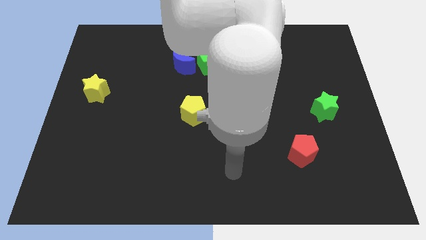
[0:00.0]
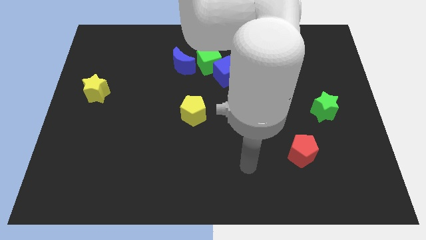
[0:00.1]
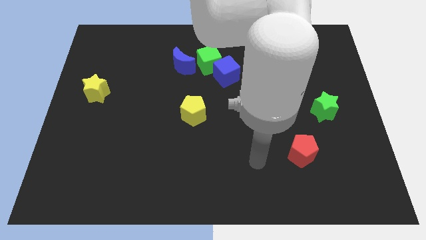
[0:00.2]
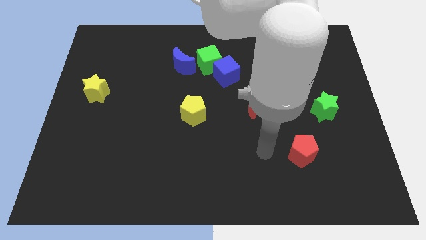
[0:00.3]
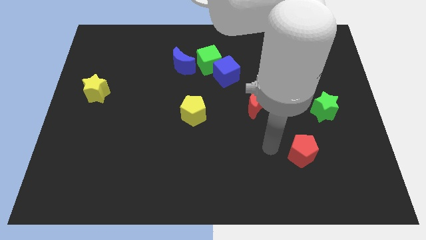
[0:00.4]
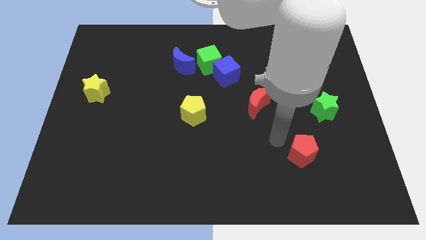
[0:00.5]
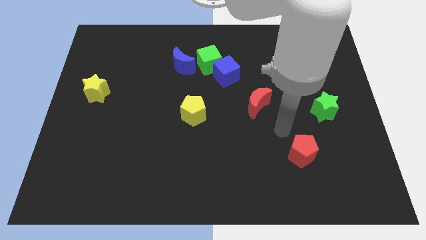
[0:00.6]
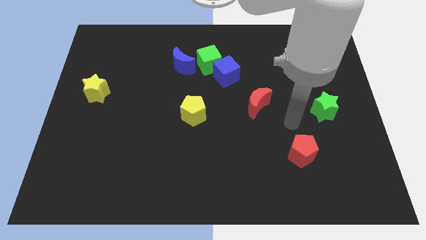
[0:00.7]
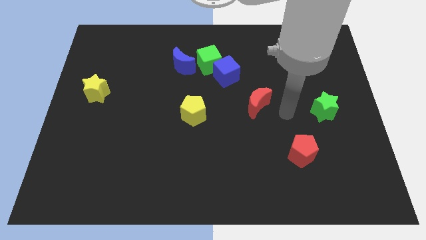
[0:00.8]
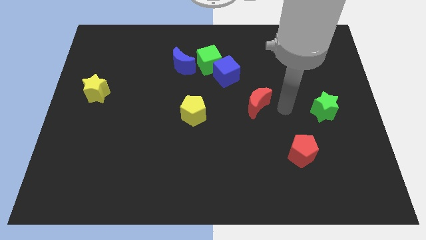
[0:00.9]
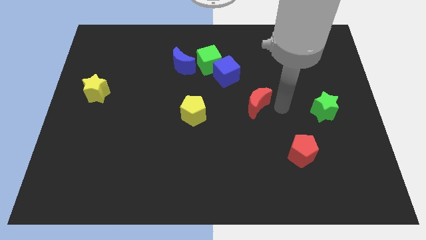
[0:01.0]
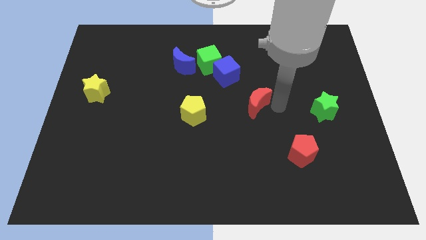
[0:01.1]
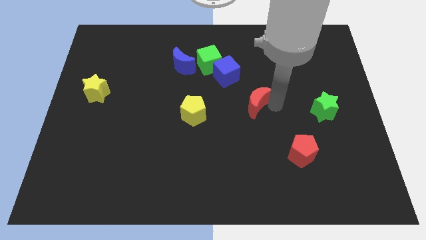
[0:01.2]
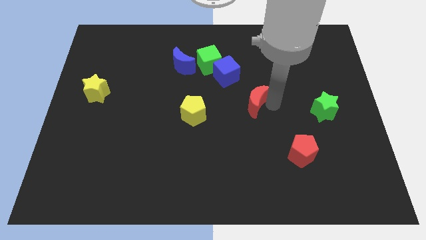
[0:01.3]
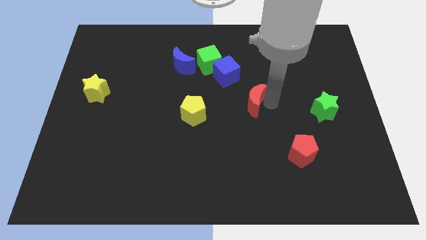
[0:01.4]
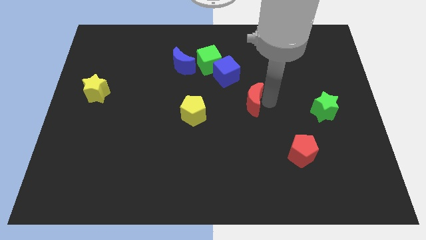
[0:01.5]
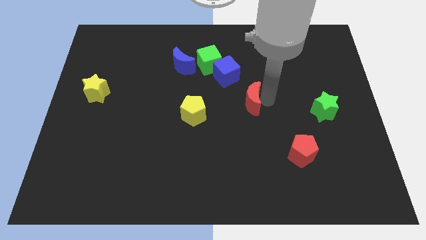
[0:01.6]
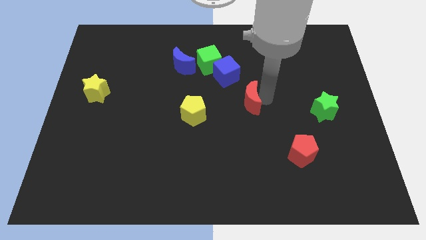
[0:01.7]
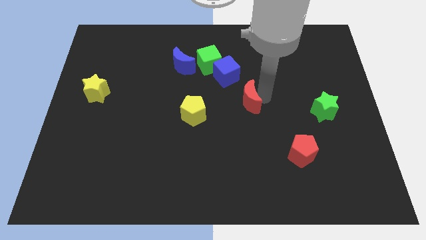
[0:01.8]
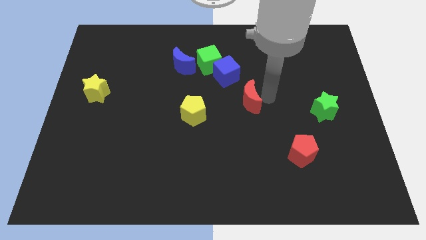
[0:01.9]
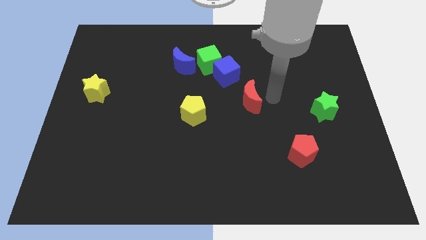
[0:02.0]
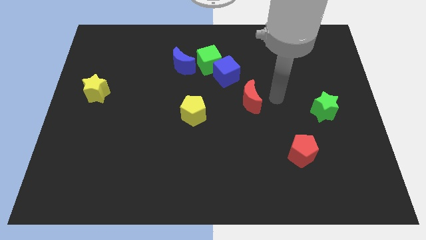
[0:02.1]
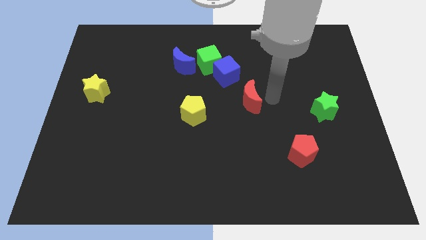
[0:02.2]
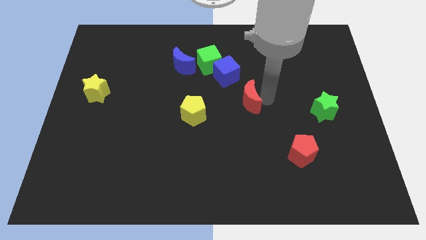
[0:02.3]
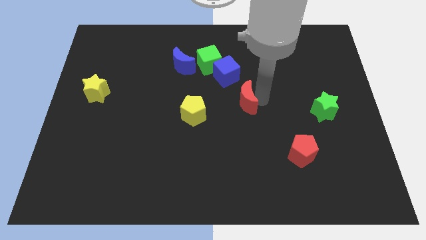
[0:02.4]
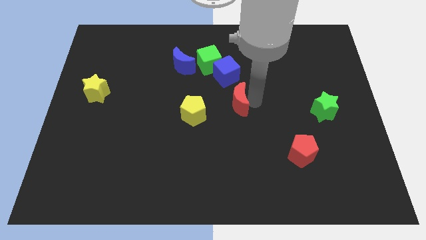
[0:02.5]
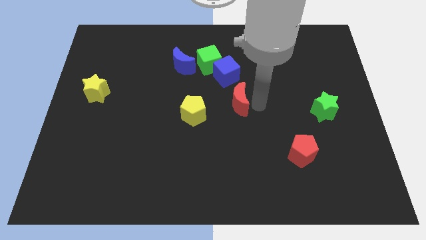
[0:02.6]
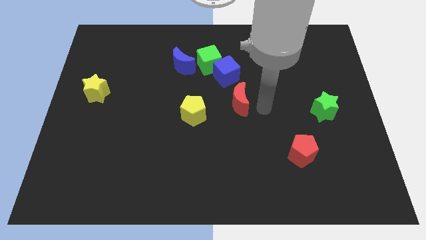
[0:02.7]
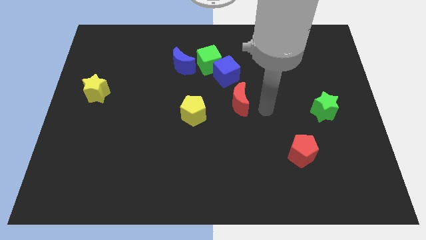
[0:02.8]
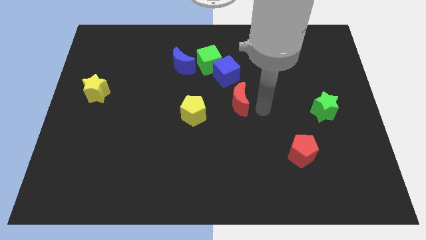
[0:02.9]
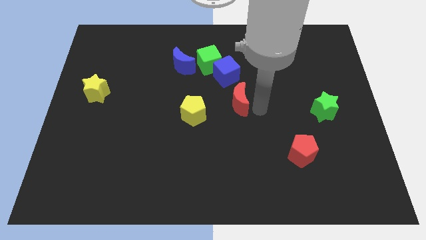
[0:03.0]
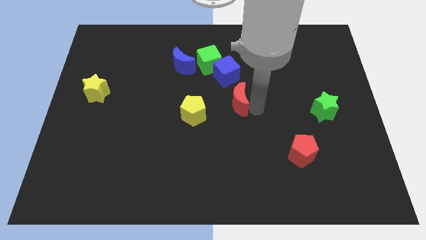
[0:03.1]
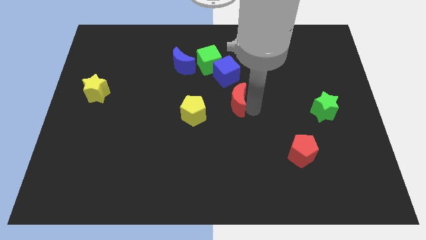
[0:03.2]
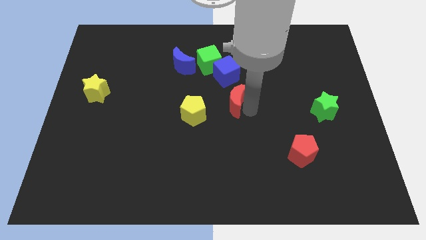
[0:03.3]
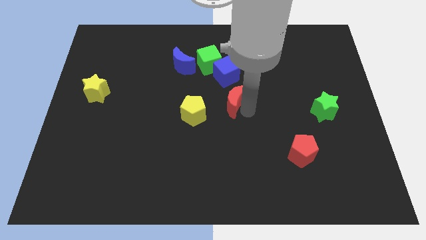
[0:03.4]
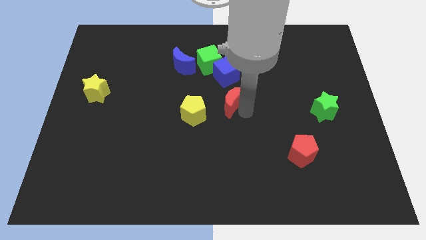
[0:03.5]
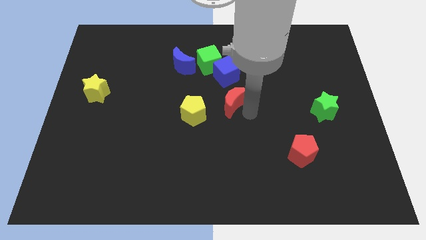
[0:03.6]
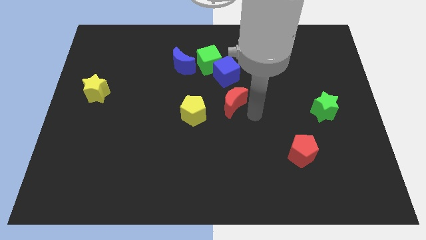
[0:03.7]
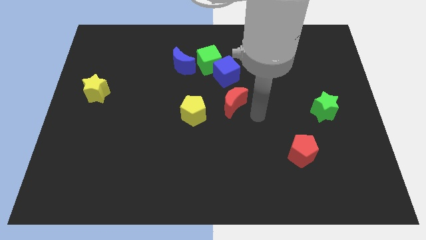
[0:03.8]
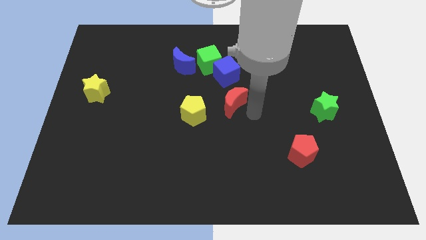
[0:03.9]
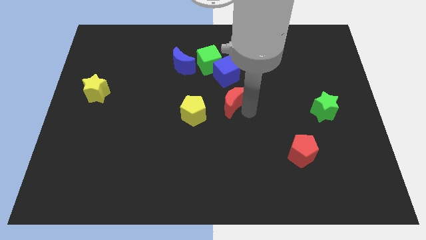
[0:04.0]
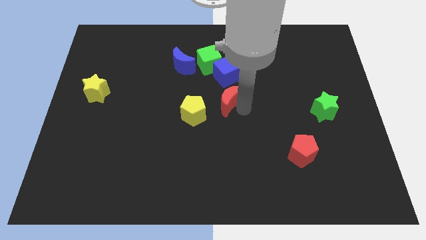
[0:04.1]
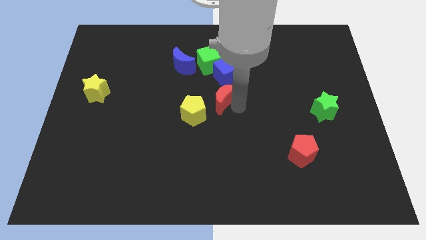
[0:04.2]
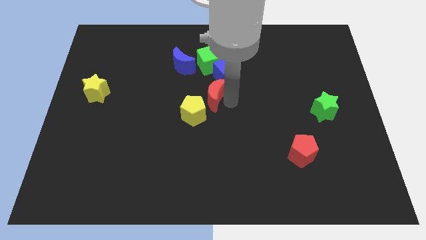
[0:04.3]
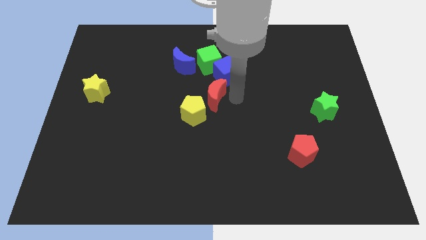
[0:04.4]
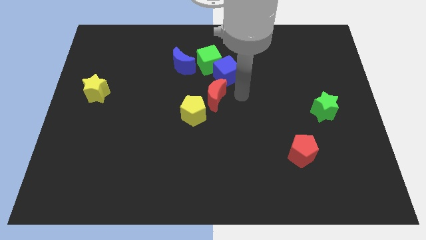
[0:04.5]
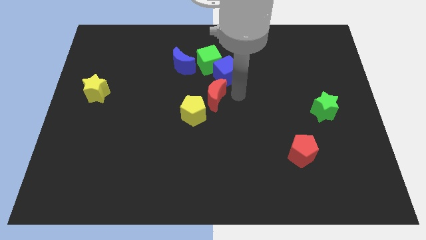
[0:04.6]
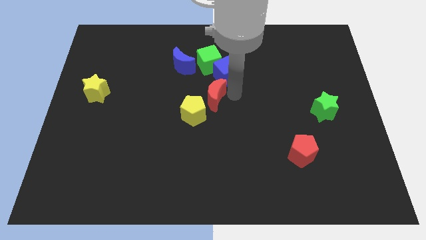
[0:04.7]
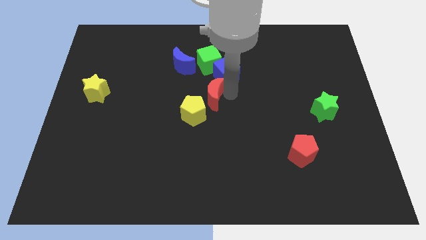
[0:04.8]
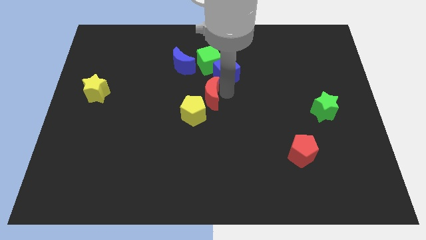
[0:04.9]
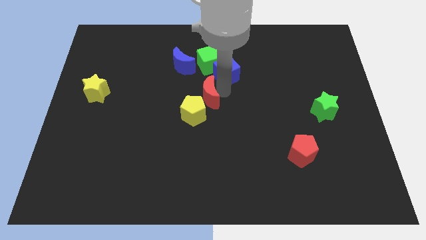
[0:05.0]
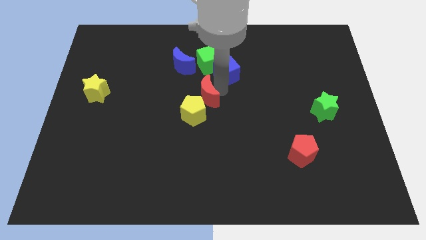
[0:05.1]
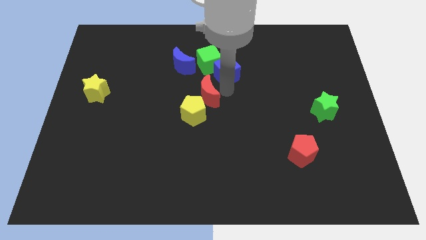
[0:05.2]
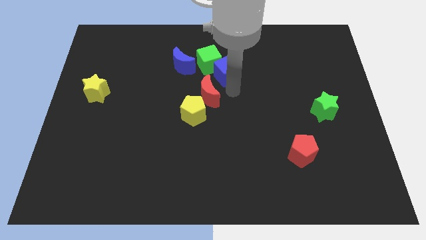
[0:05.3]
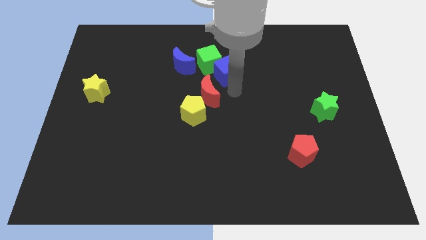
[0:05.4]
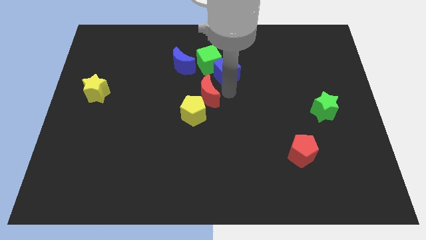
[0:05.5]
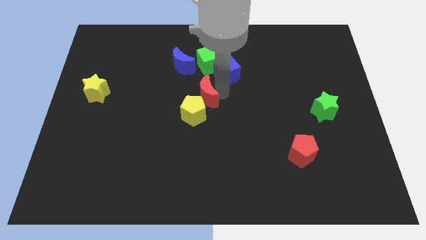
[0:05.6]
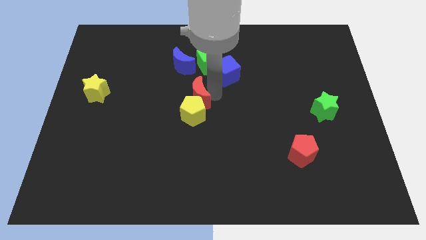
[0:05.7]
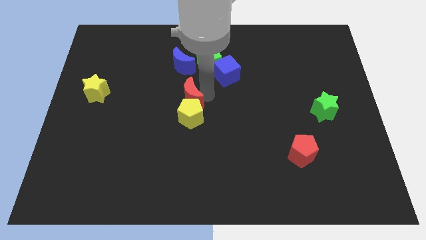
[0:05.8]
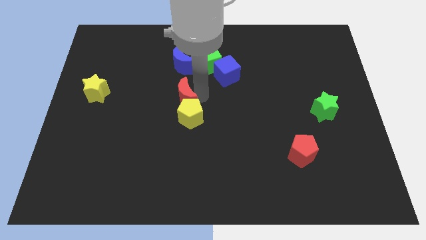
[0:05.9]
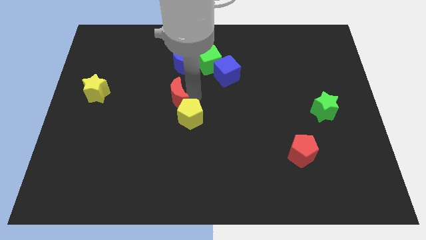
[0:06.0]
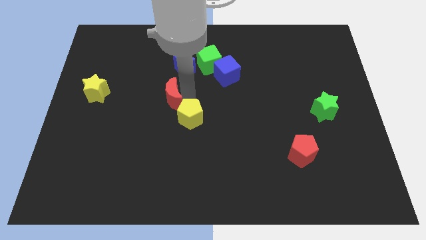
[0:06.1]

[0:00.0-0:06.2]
slide the red moon to the left

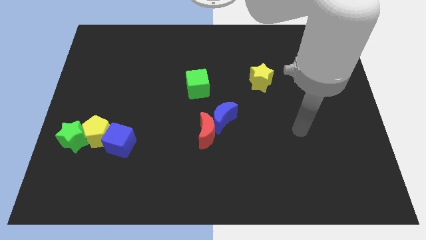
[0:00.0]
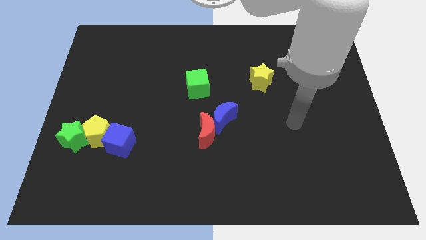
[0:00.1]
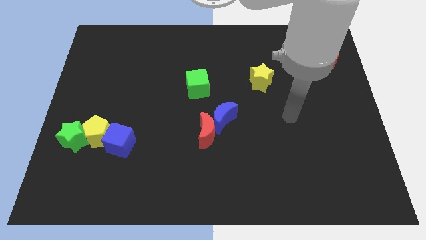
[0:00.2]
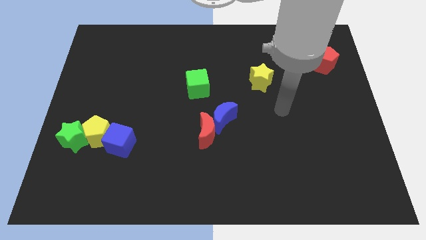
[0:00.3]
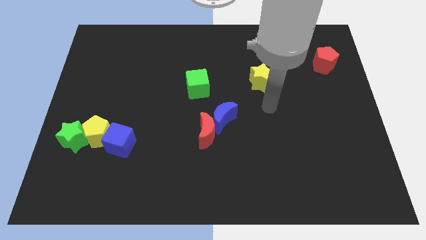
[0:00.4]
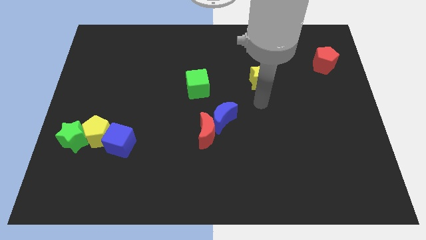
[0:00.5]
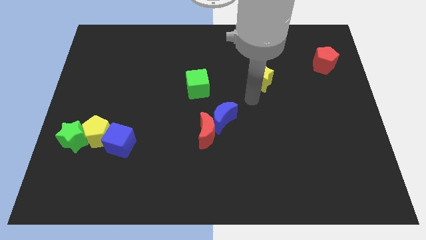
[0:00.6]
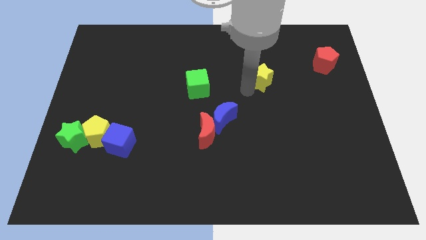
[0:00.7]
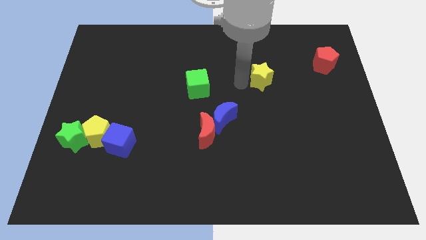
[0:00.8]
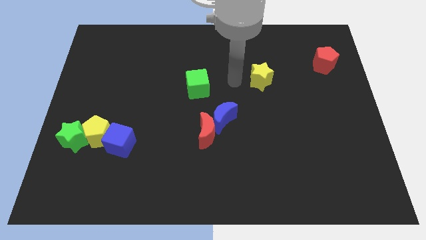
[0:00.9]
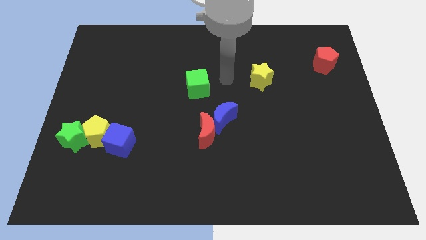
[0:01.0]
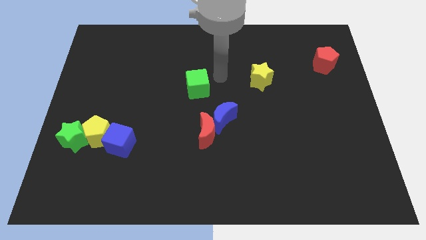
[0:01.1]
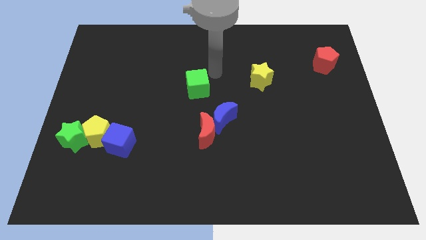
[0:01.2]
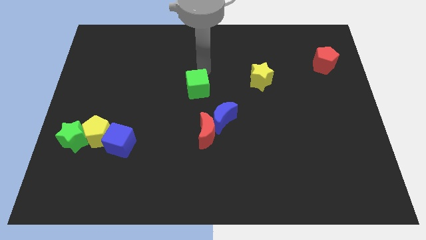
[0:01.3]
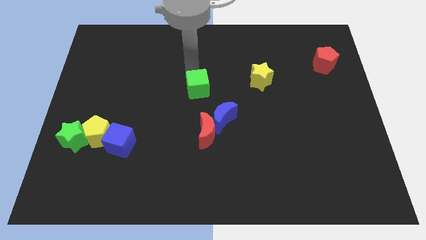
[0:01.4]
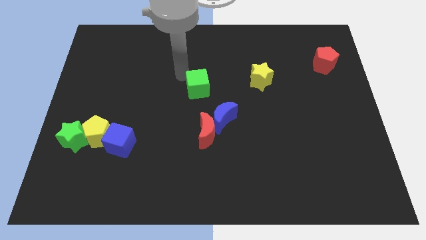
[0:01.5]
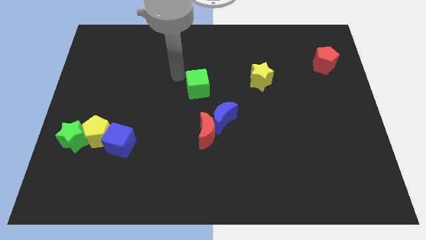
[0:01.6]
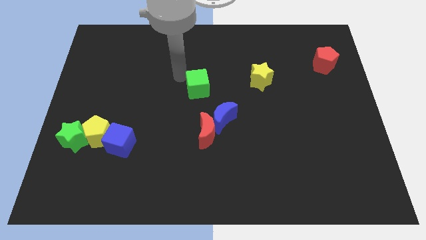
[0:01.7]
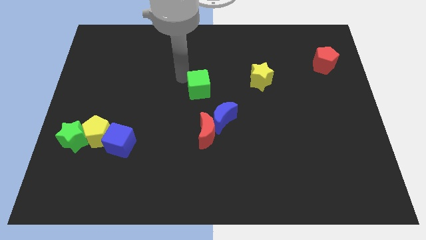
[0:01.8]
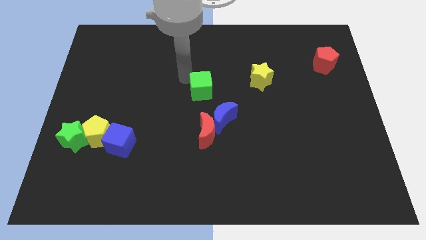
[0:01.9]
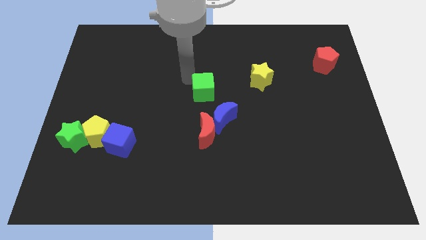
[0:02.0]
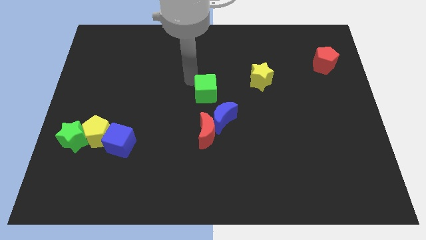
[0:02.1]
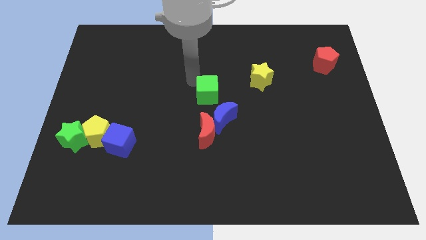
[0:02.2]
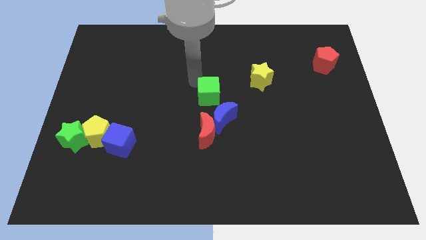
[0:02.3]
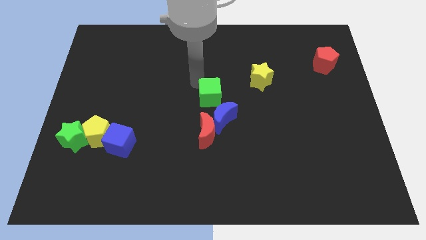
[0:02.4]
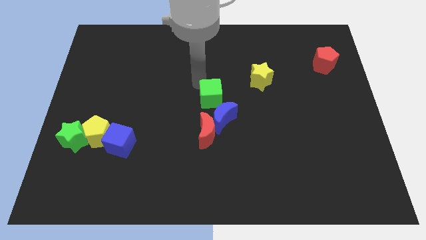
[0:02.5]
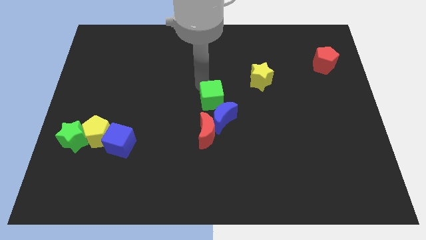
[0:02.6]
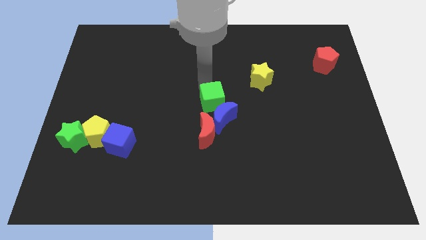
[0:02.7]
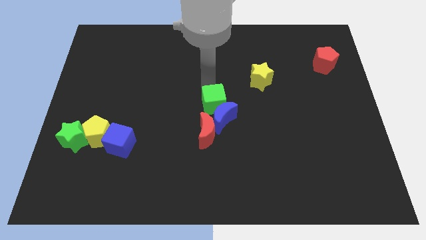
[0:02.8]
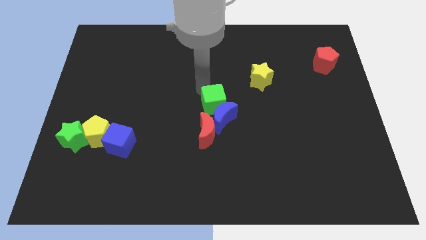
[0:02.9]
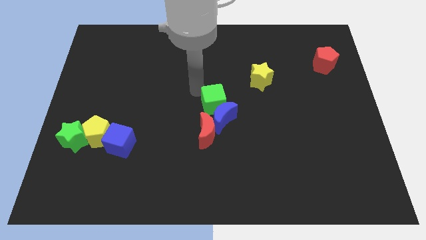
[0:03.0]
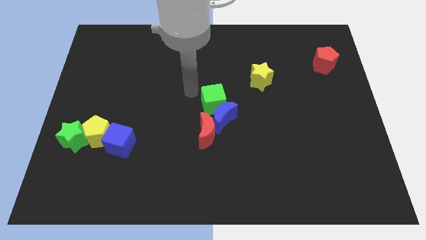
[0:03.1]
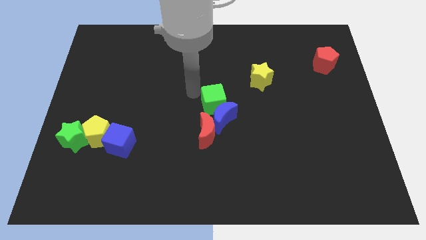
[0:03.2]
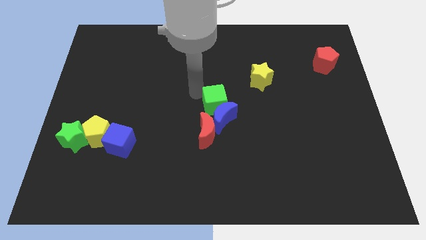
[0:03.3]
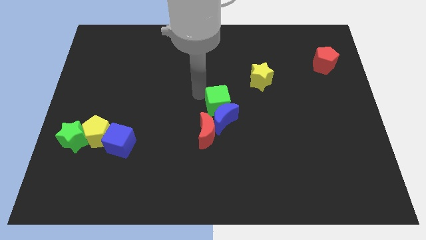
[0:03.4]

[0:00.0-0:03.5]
move the green cube somewhat down and right diagonally
